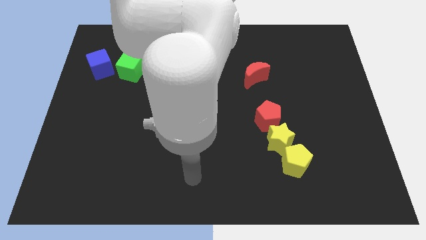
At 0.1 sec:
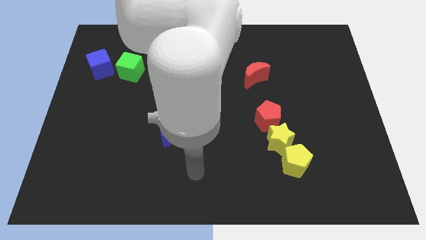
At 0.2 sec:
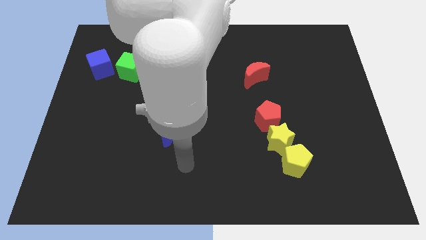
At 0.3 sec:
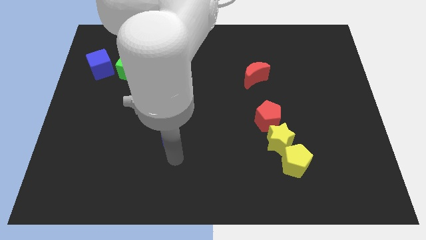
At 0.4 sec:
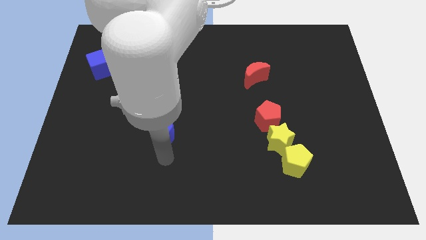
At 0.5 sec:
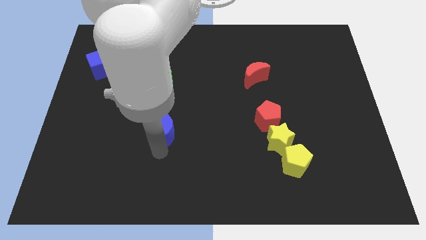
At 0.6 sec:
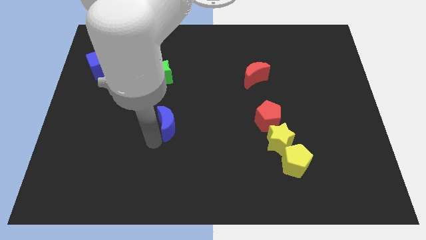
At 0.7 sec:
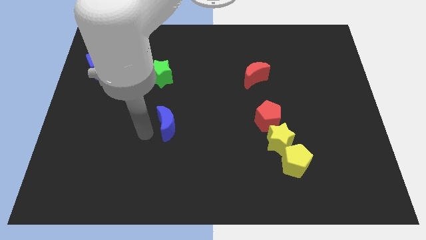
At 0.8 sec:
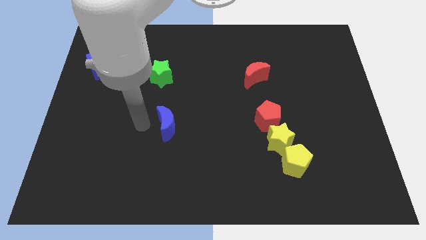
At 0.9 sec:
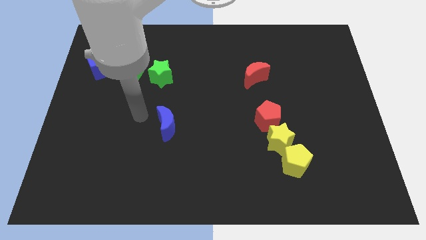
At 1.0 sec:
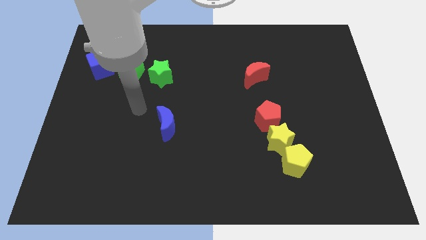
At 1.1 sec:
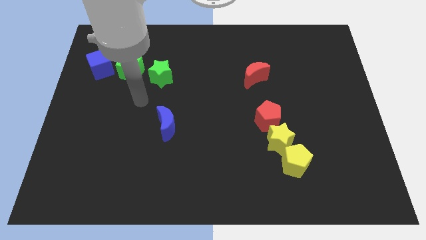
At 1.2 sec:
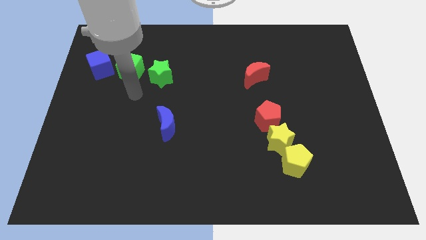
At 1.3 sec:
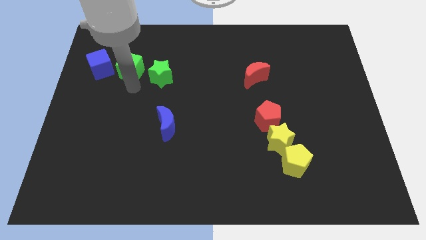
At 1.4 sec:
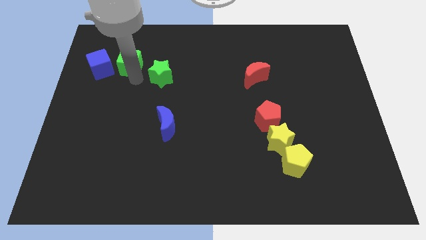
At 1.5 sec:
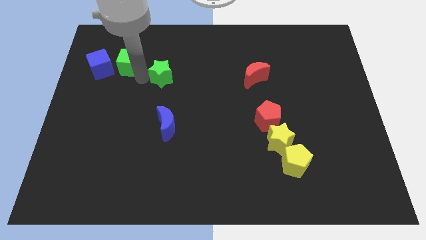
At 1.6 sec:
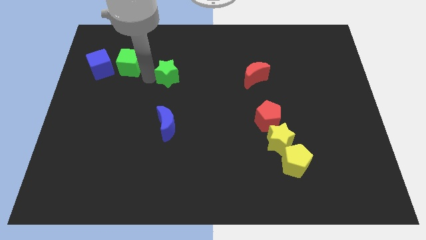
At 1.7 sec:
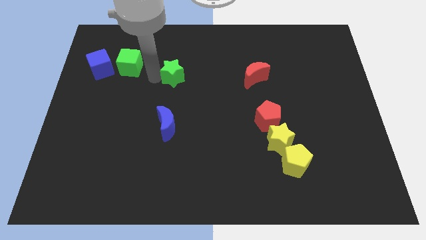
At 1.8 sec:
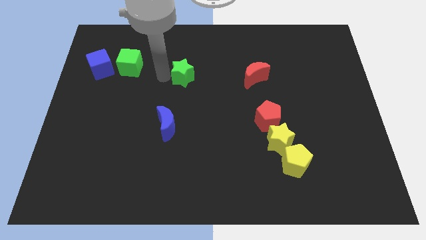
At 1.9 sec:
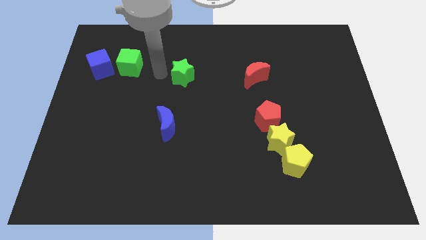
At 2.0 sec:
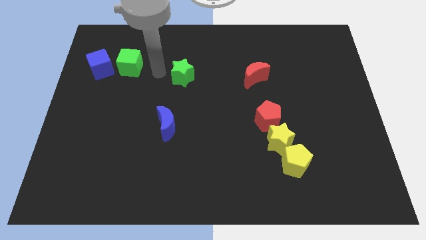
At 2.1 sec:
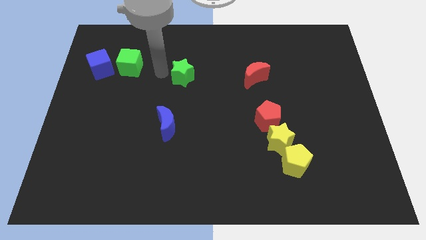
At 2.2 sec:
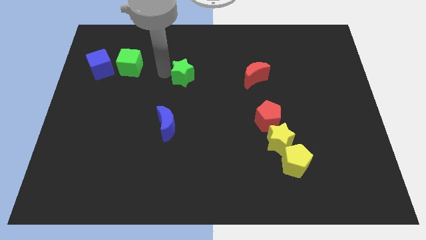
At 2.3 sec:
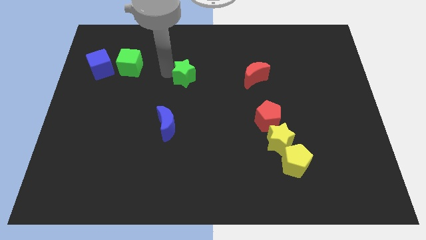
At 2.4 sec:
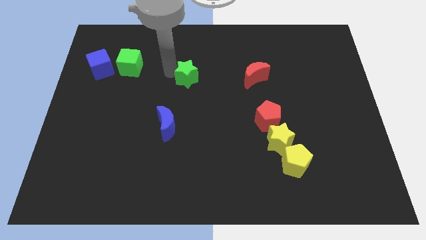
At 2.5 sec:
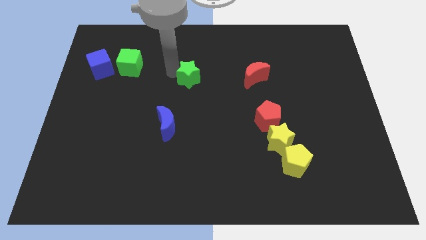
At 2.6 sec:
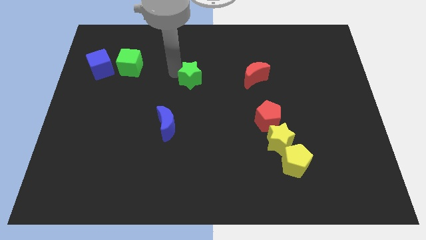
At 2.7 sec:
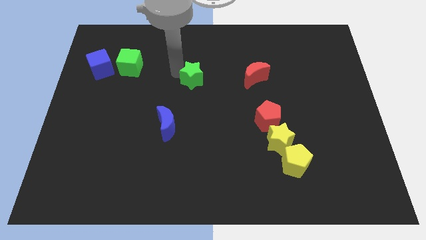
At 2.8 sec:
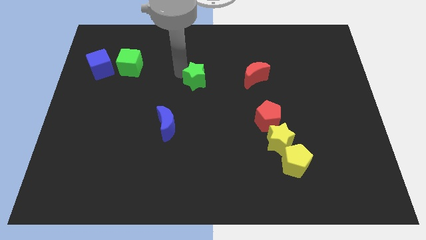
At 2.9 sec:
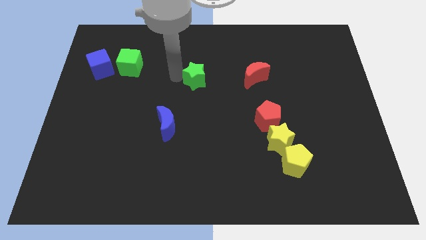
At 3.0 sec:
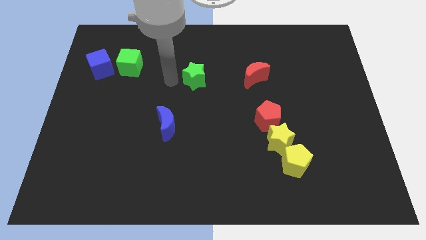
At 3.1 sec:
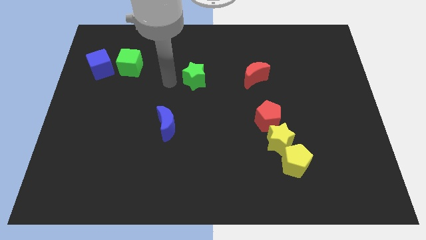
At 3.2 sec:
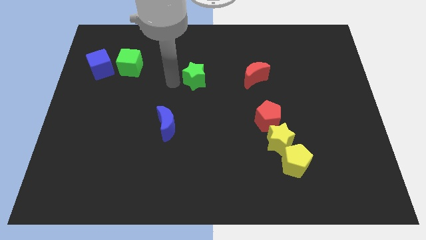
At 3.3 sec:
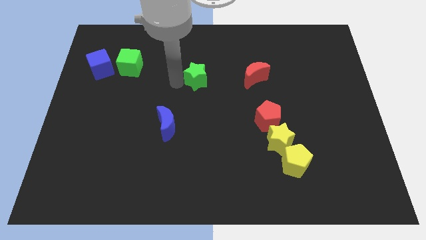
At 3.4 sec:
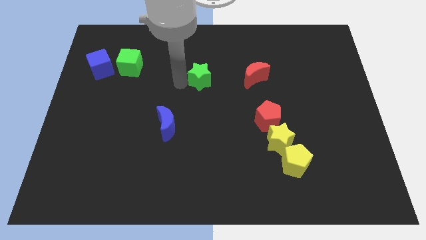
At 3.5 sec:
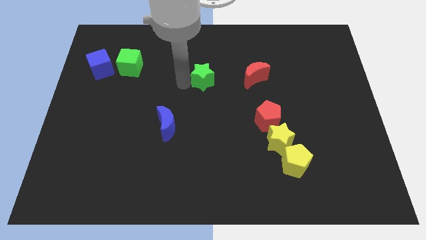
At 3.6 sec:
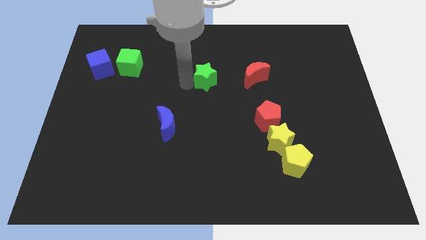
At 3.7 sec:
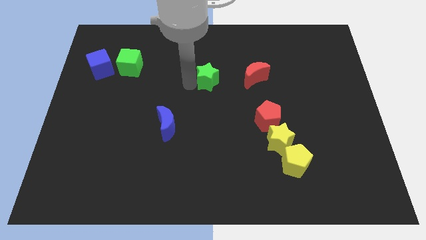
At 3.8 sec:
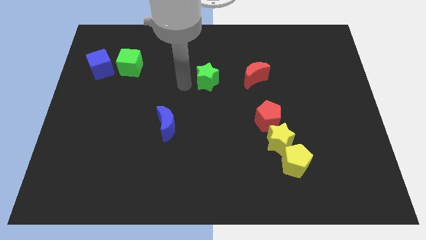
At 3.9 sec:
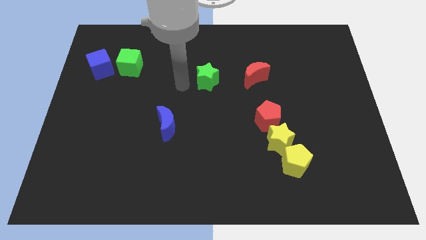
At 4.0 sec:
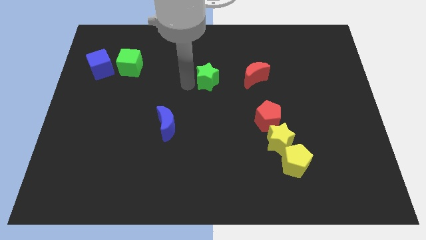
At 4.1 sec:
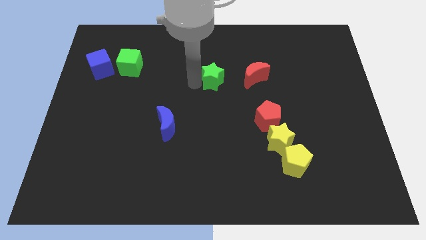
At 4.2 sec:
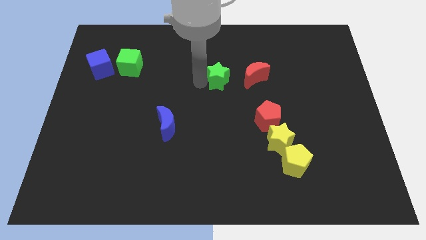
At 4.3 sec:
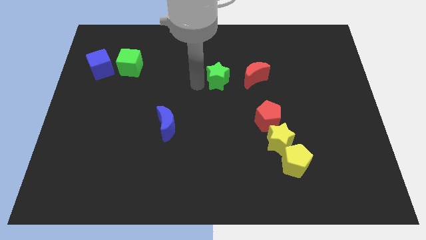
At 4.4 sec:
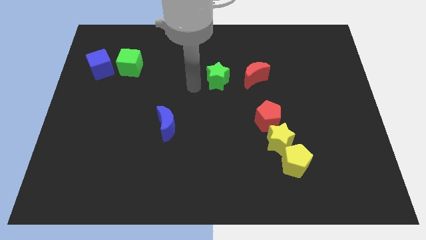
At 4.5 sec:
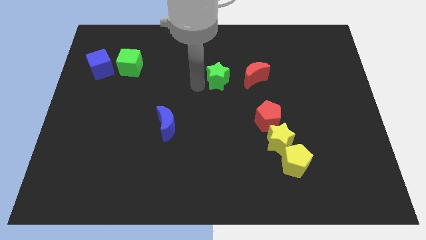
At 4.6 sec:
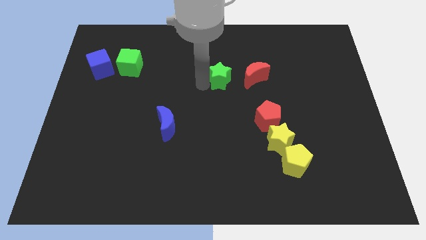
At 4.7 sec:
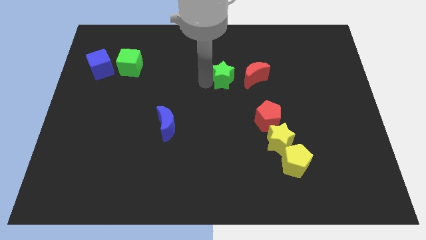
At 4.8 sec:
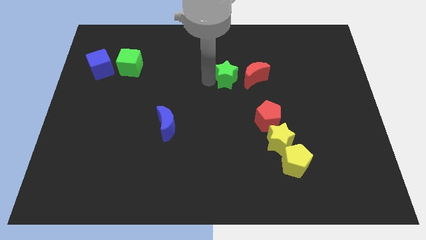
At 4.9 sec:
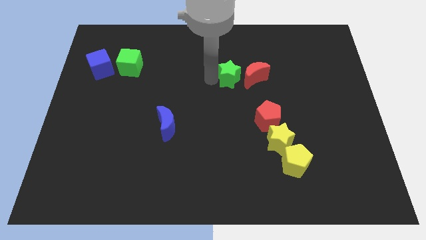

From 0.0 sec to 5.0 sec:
push the green star close to the red moon

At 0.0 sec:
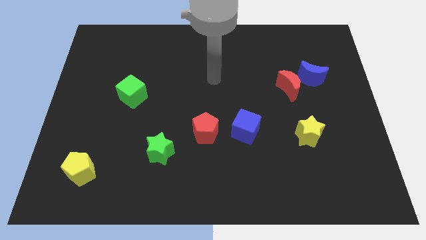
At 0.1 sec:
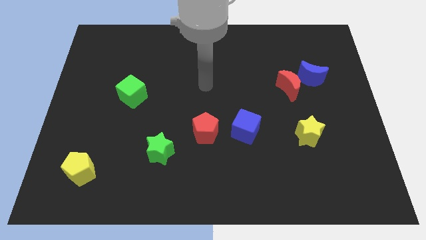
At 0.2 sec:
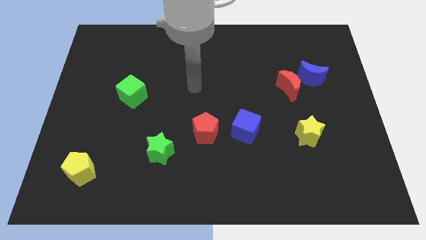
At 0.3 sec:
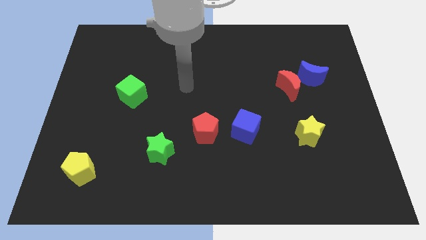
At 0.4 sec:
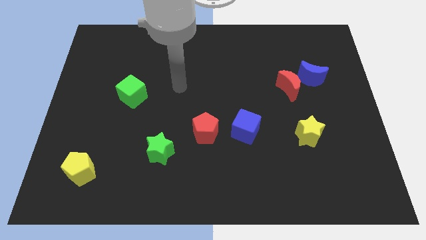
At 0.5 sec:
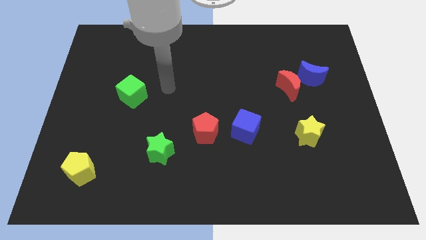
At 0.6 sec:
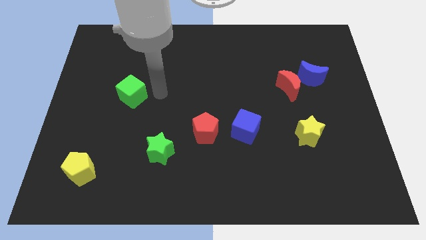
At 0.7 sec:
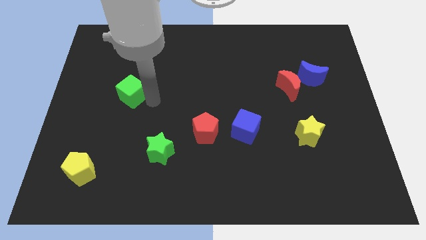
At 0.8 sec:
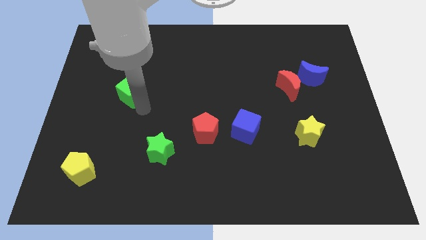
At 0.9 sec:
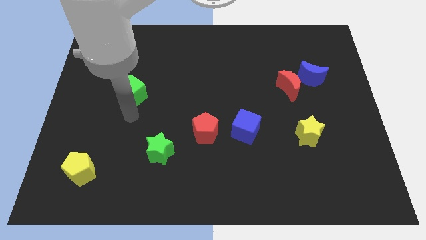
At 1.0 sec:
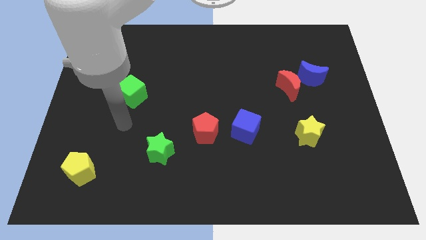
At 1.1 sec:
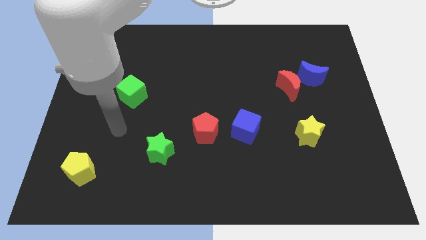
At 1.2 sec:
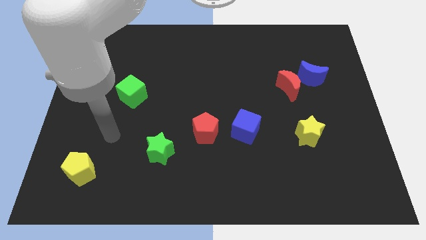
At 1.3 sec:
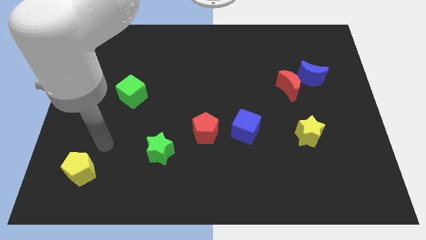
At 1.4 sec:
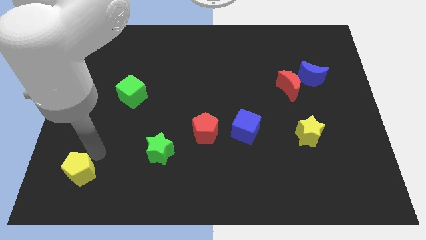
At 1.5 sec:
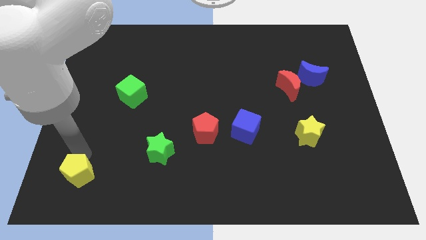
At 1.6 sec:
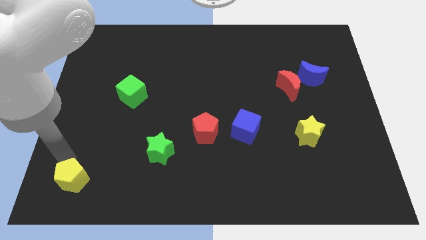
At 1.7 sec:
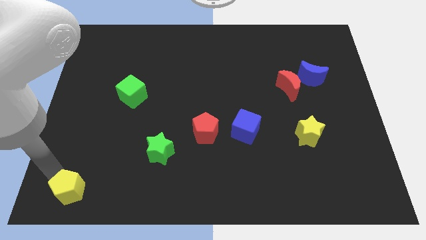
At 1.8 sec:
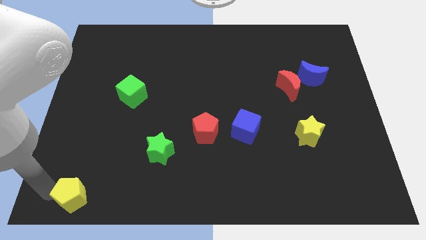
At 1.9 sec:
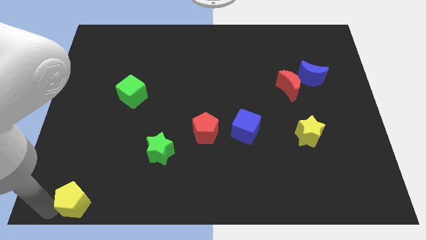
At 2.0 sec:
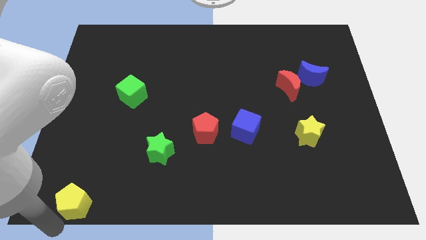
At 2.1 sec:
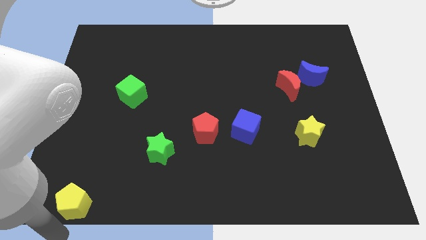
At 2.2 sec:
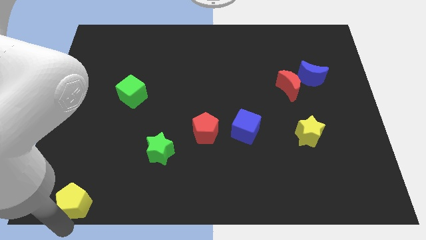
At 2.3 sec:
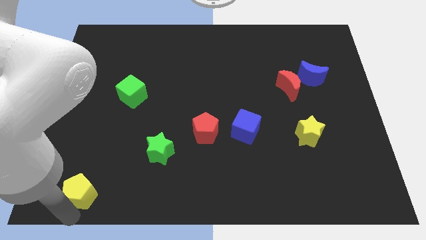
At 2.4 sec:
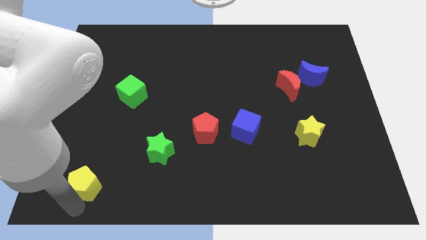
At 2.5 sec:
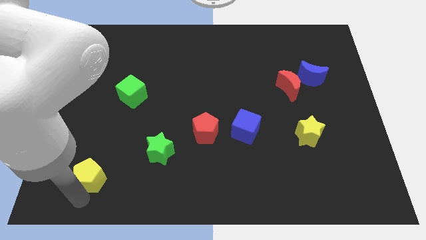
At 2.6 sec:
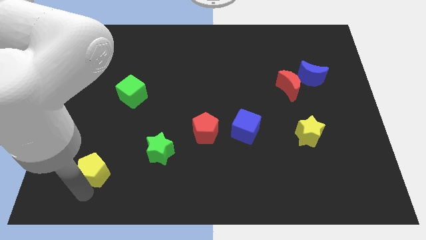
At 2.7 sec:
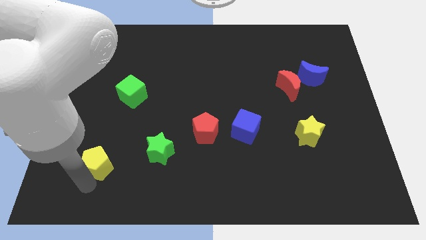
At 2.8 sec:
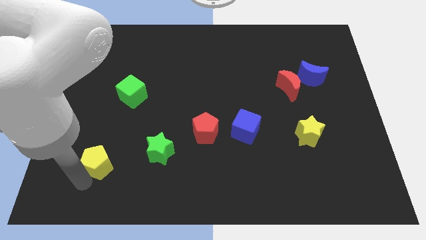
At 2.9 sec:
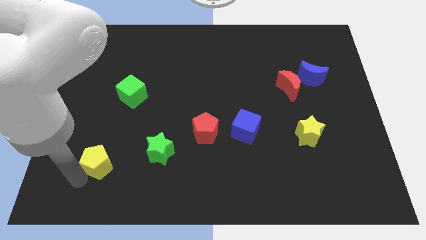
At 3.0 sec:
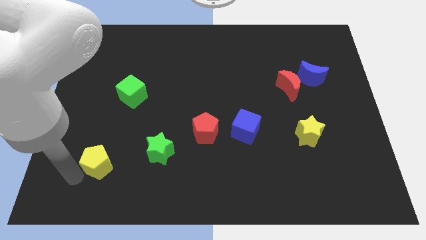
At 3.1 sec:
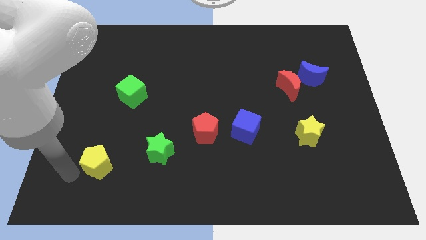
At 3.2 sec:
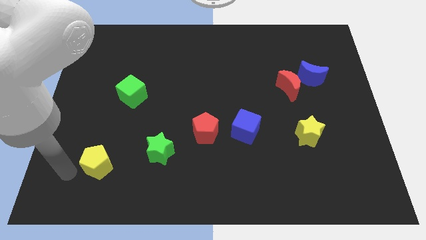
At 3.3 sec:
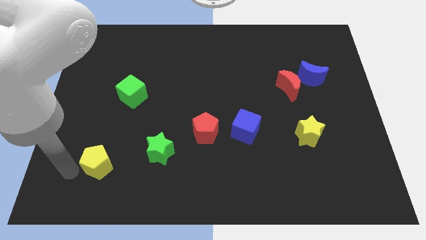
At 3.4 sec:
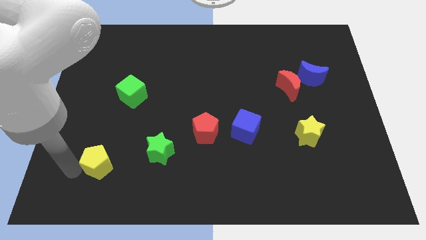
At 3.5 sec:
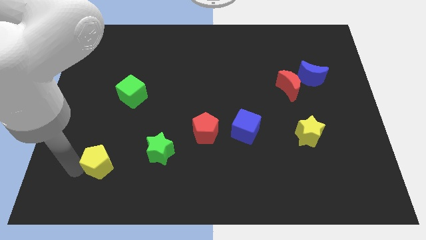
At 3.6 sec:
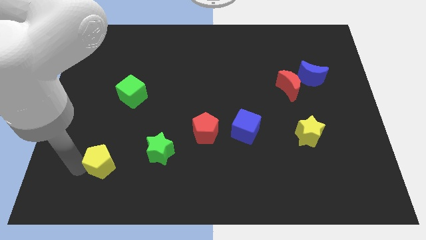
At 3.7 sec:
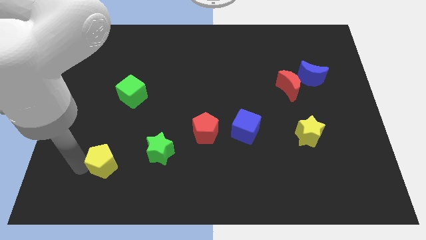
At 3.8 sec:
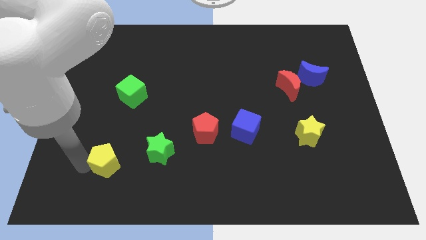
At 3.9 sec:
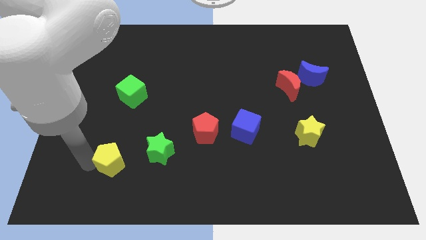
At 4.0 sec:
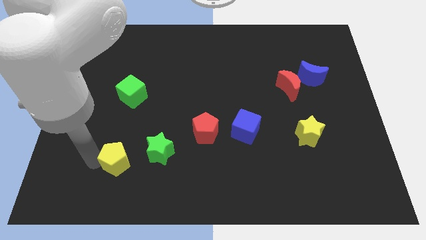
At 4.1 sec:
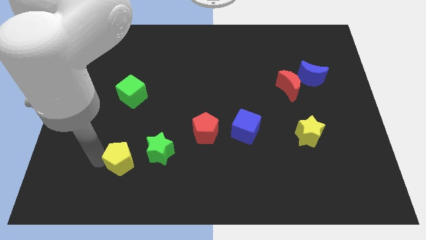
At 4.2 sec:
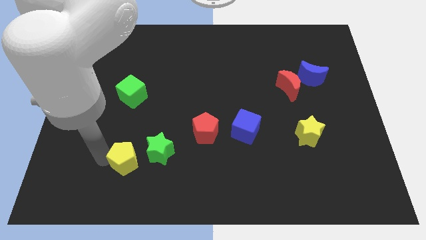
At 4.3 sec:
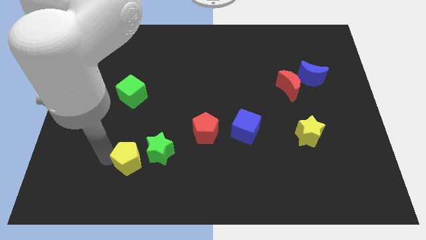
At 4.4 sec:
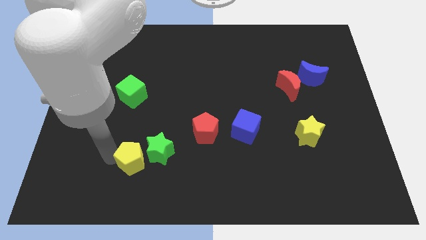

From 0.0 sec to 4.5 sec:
push the yellow pentagon next to the green star
